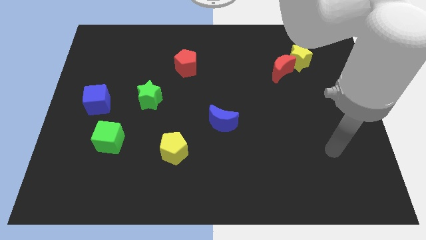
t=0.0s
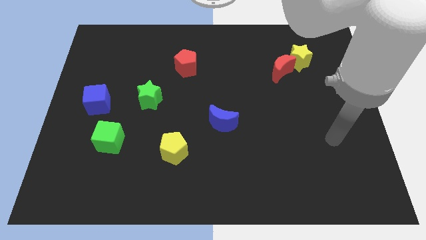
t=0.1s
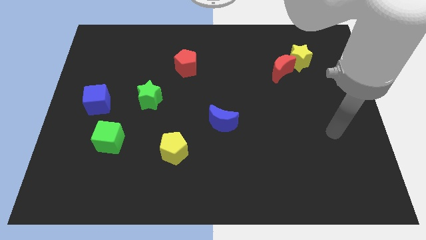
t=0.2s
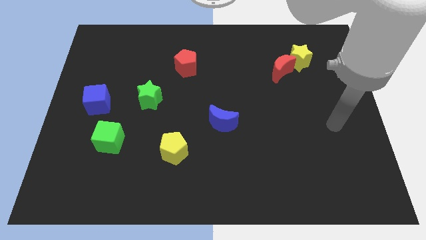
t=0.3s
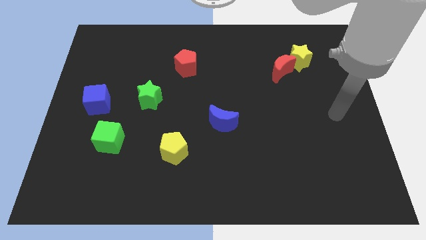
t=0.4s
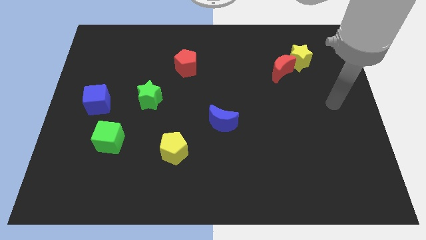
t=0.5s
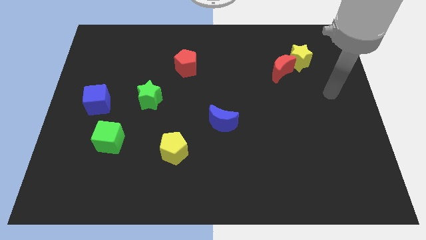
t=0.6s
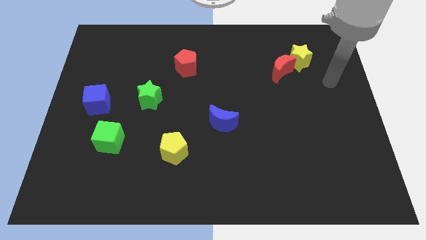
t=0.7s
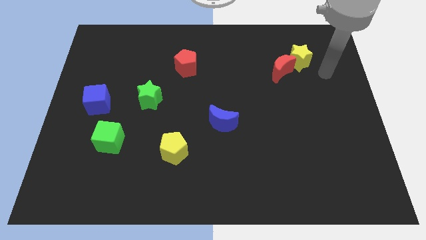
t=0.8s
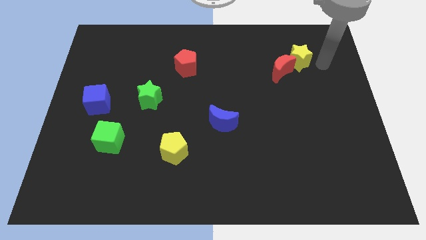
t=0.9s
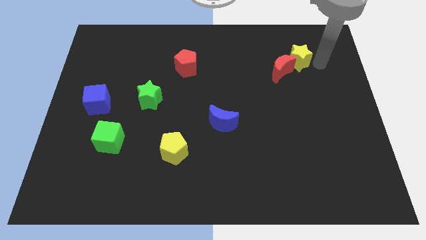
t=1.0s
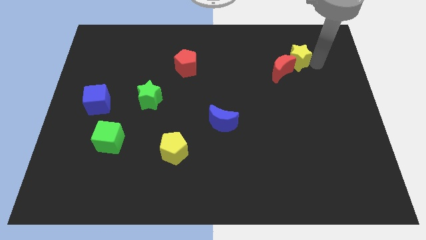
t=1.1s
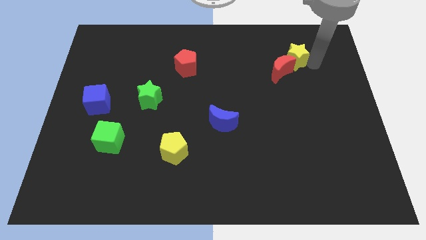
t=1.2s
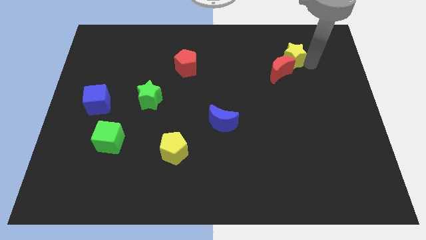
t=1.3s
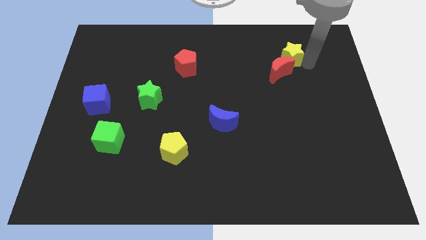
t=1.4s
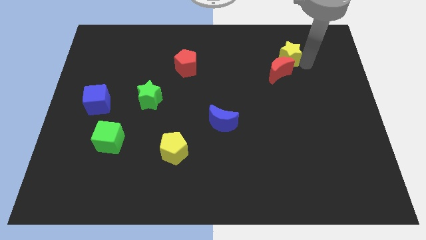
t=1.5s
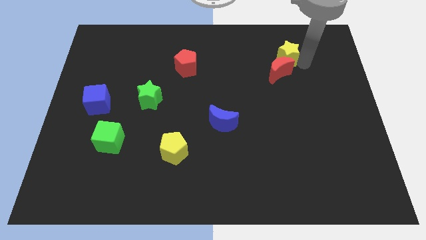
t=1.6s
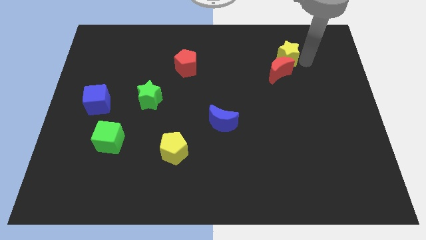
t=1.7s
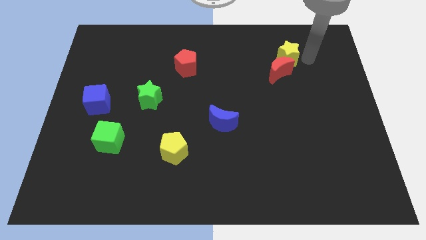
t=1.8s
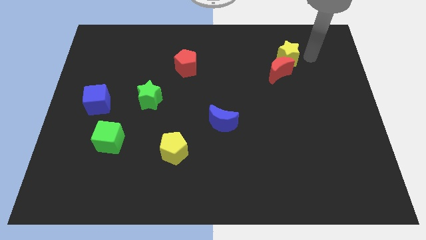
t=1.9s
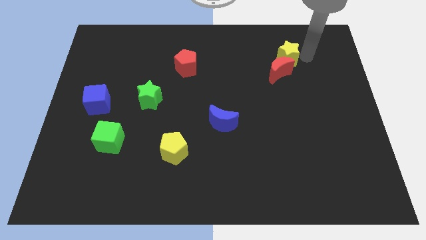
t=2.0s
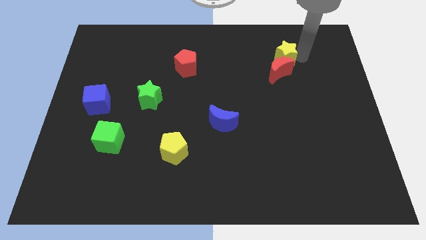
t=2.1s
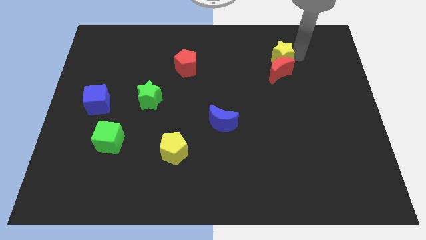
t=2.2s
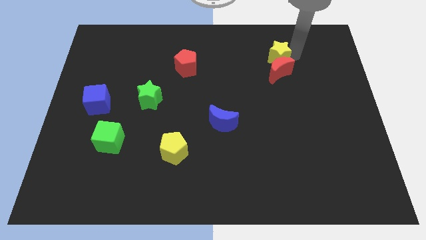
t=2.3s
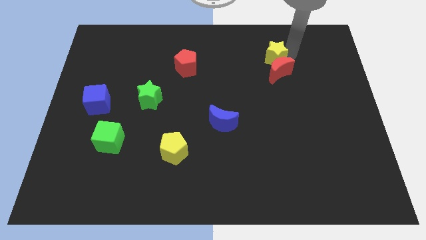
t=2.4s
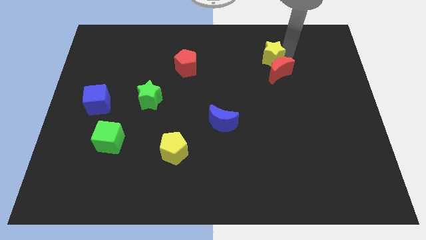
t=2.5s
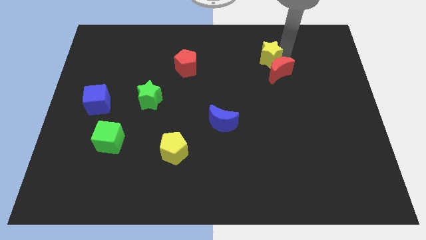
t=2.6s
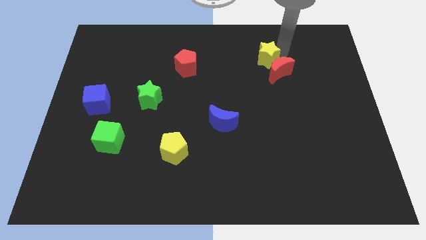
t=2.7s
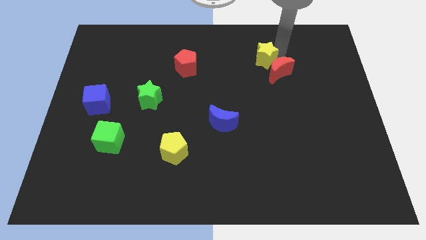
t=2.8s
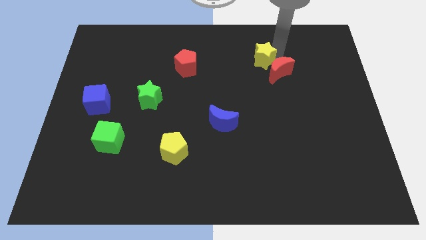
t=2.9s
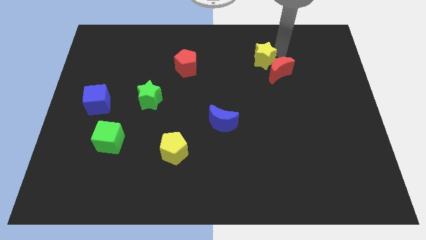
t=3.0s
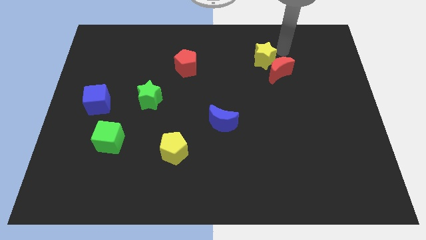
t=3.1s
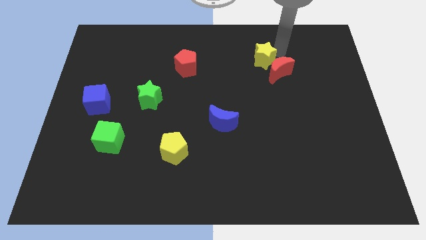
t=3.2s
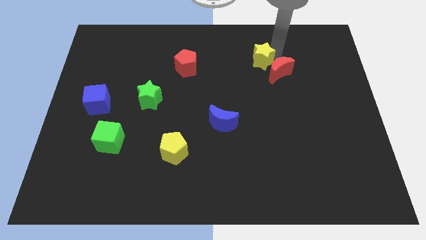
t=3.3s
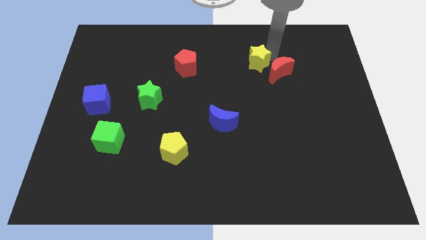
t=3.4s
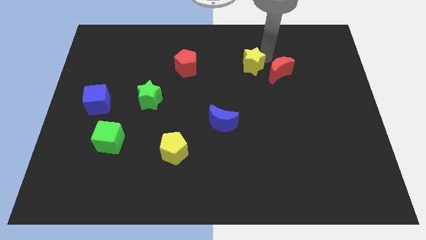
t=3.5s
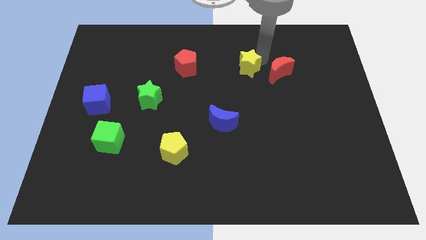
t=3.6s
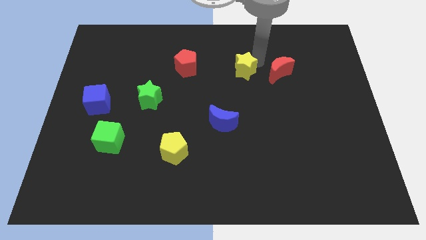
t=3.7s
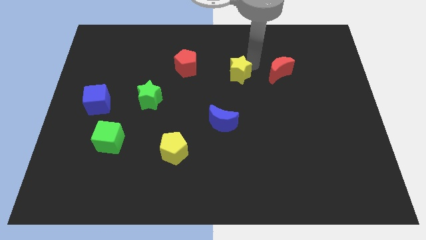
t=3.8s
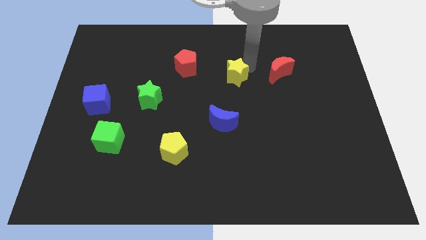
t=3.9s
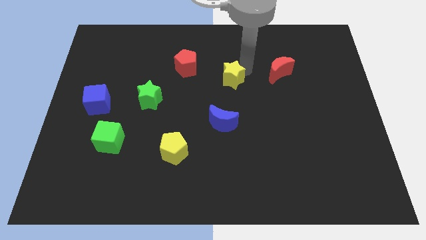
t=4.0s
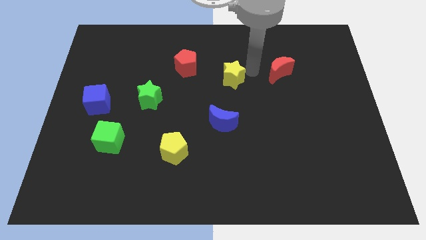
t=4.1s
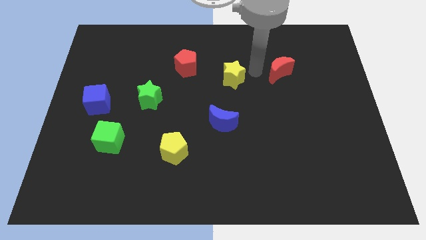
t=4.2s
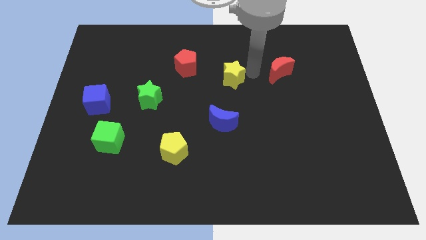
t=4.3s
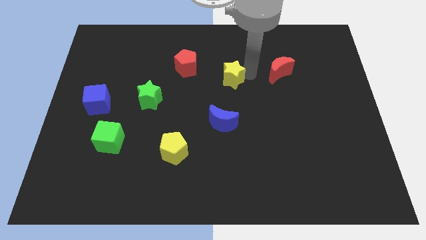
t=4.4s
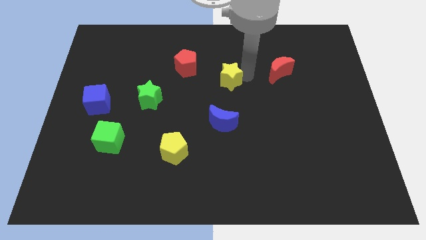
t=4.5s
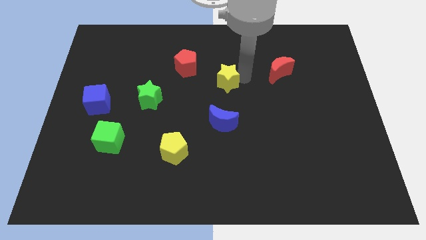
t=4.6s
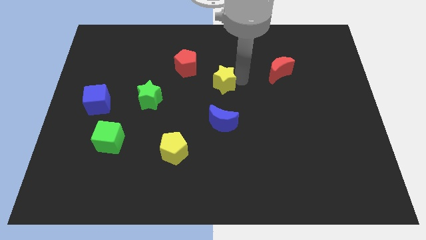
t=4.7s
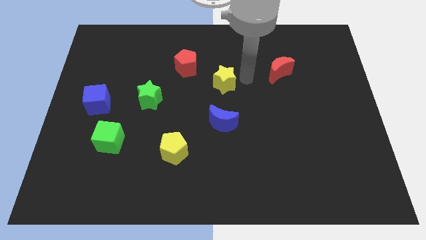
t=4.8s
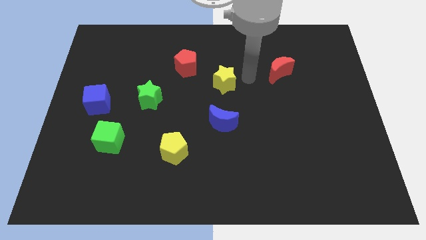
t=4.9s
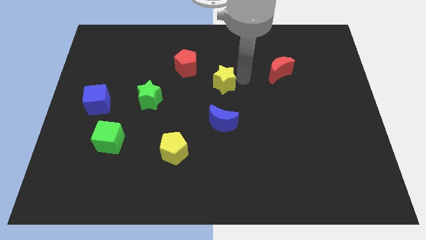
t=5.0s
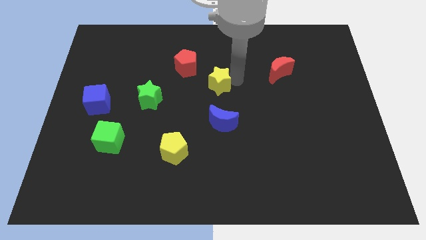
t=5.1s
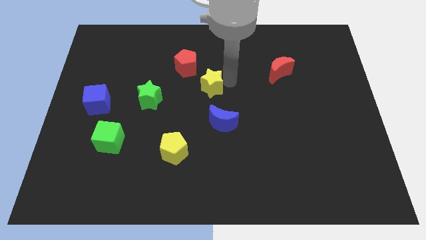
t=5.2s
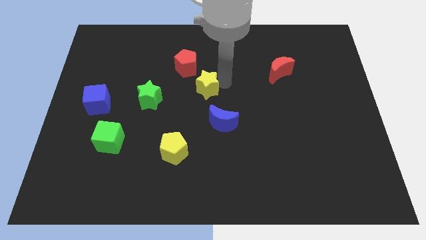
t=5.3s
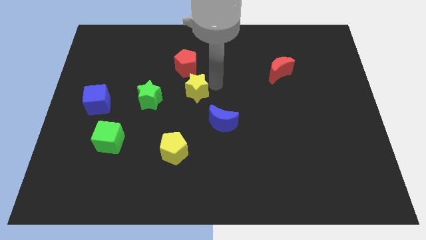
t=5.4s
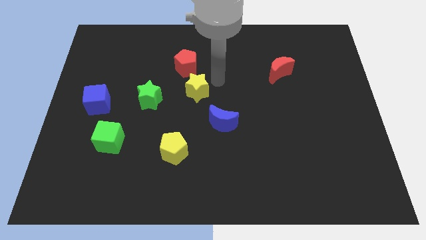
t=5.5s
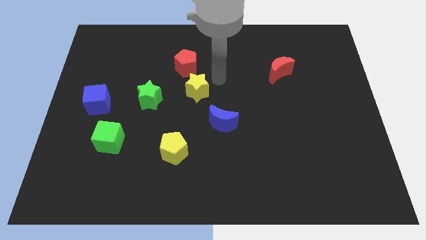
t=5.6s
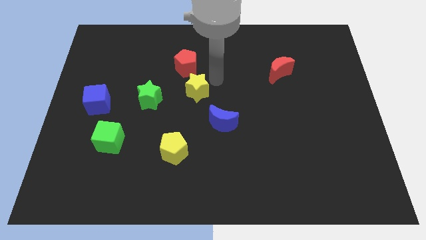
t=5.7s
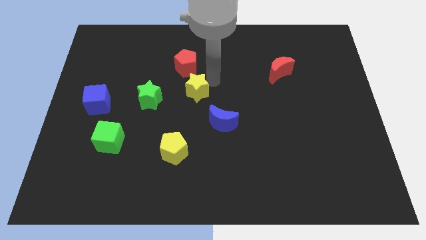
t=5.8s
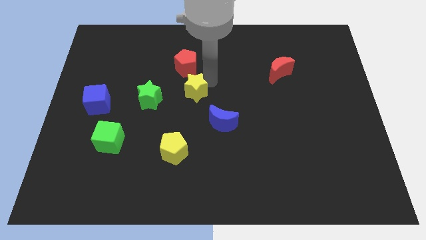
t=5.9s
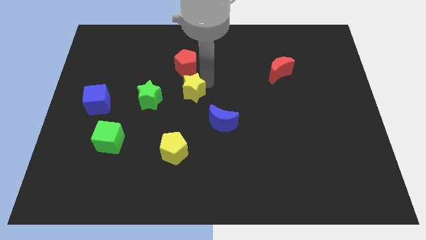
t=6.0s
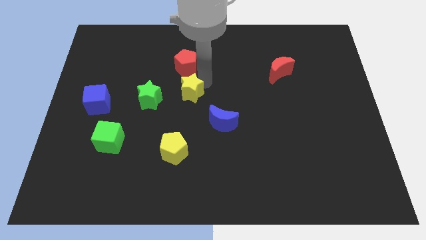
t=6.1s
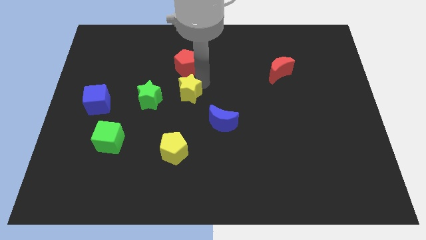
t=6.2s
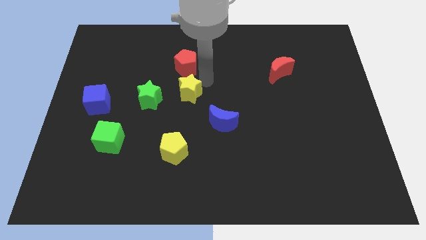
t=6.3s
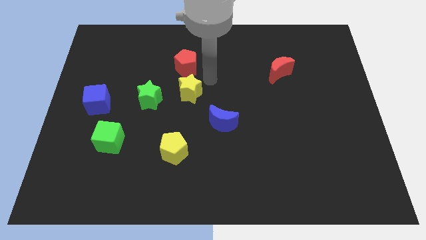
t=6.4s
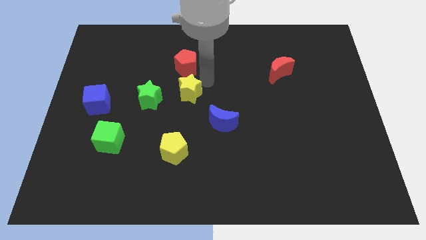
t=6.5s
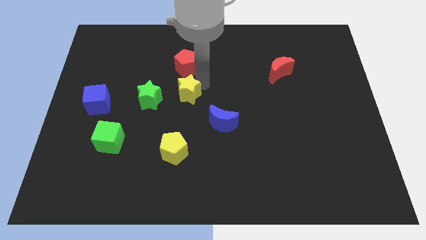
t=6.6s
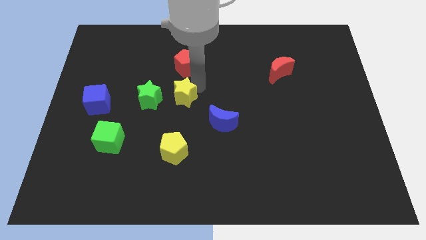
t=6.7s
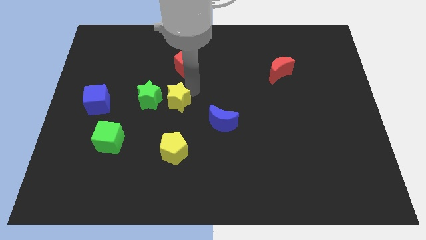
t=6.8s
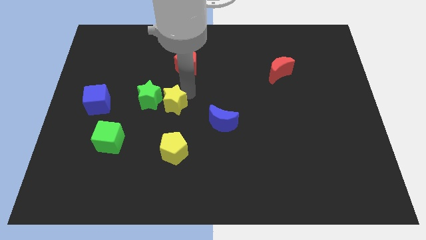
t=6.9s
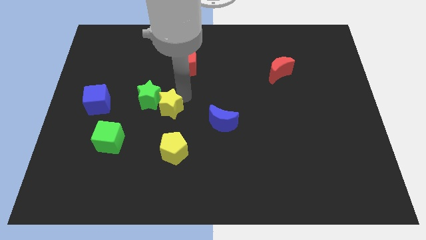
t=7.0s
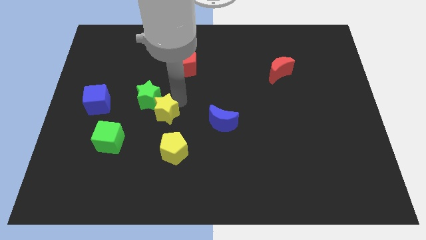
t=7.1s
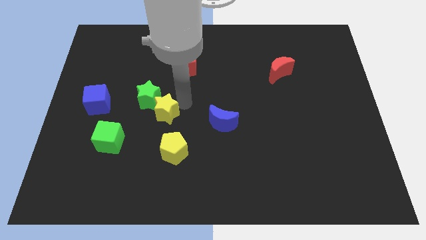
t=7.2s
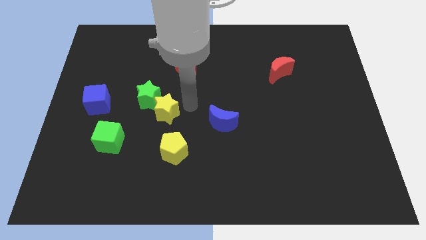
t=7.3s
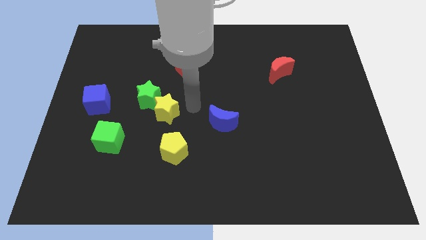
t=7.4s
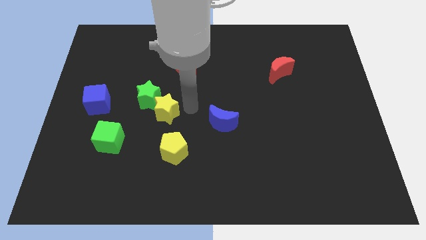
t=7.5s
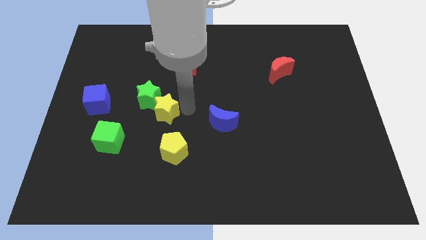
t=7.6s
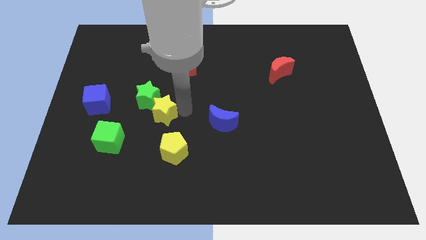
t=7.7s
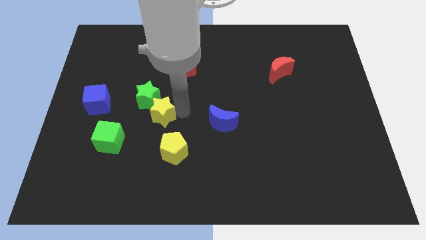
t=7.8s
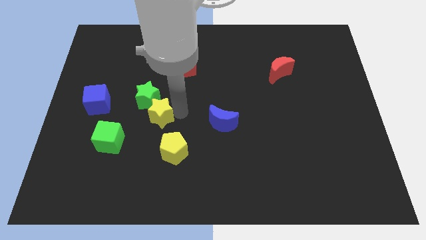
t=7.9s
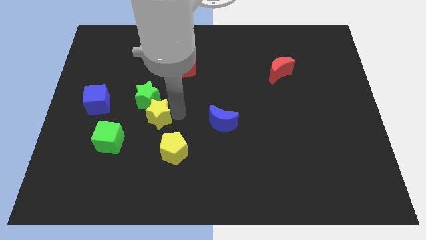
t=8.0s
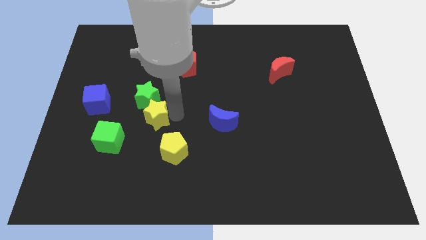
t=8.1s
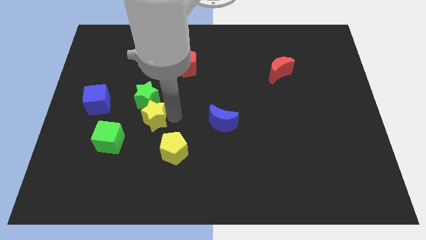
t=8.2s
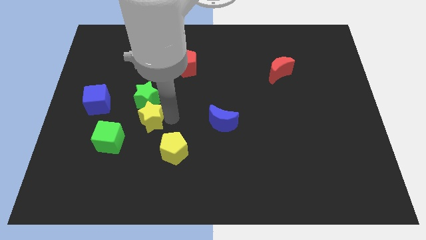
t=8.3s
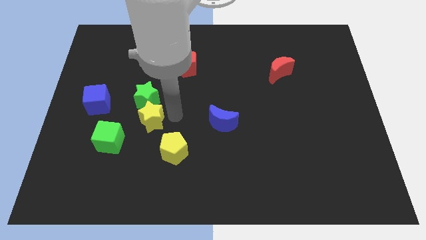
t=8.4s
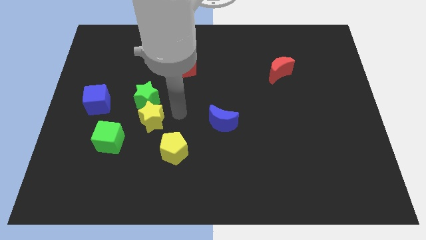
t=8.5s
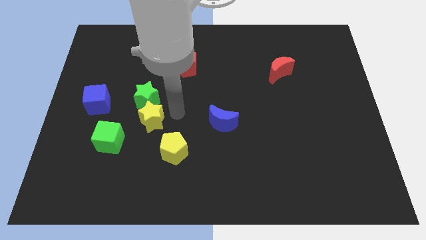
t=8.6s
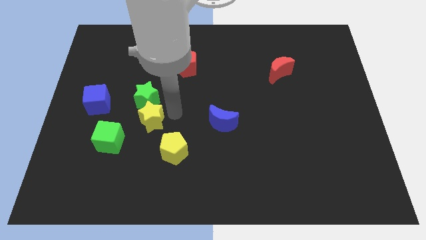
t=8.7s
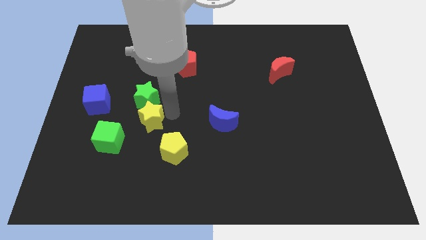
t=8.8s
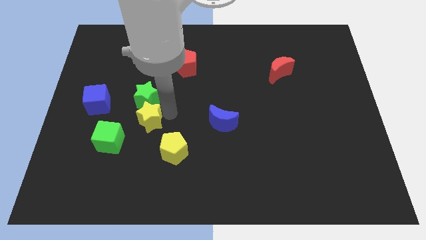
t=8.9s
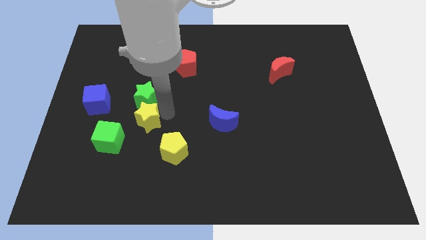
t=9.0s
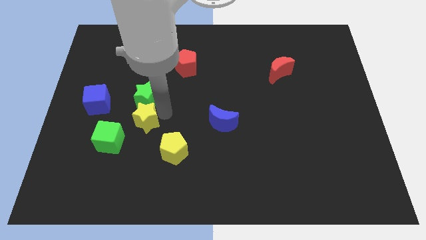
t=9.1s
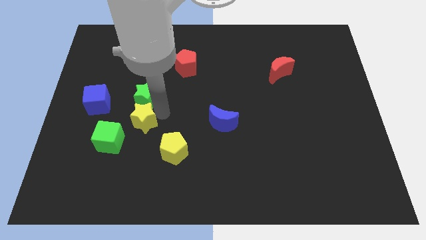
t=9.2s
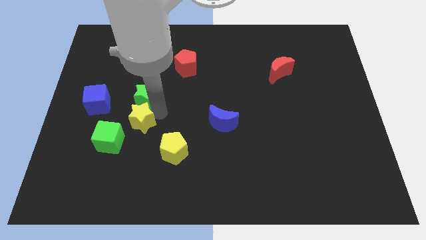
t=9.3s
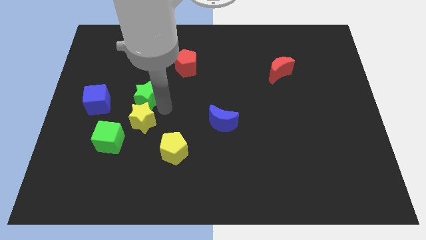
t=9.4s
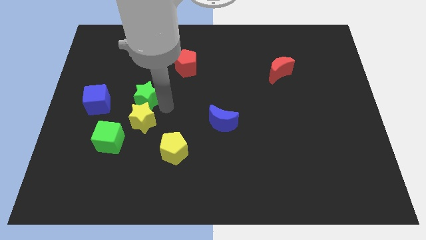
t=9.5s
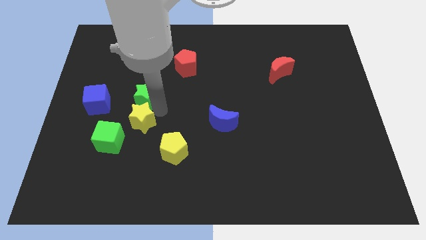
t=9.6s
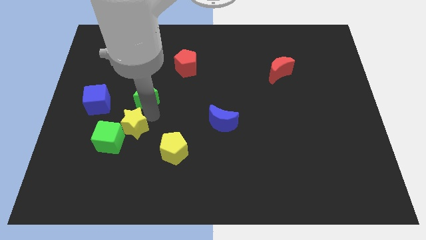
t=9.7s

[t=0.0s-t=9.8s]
move the yellow star next to the green cube
